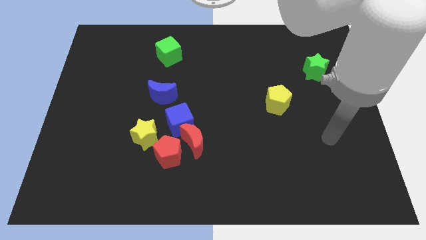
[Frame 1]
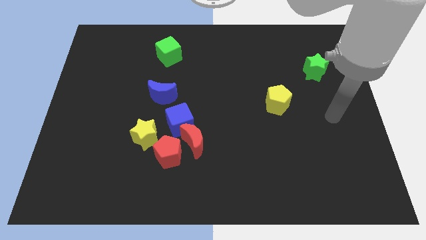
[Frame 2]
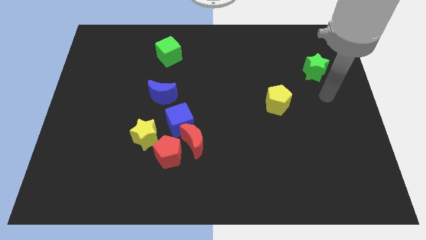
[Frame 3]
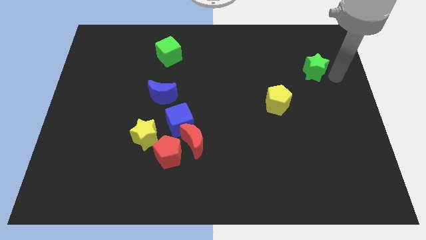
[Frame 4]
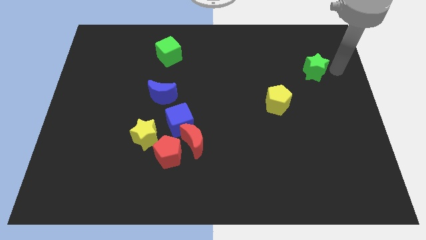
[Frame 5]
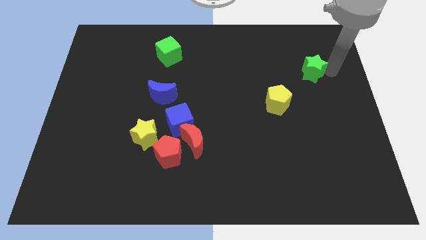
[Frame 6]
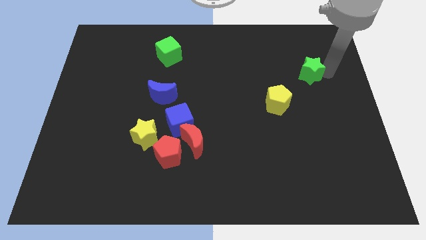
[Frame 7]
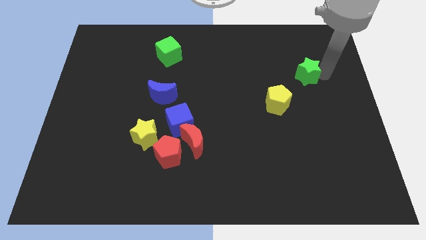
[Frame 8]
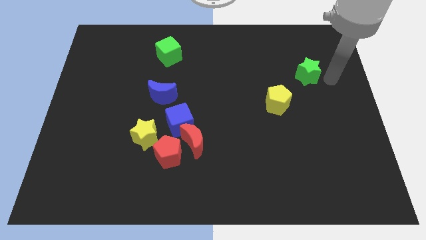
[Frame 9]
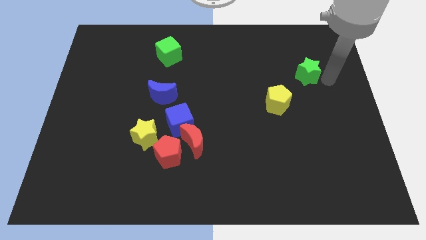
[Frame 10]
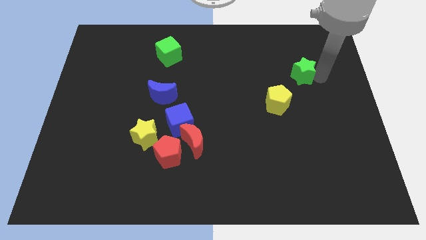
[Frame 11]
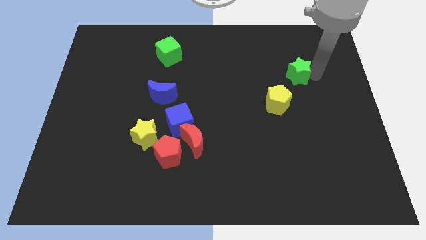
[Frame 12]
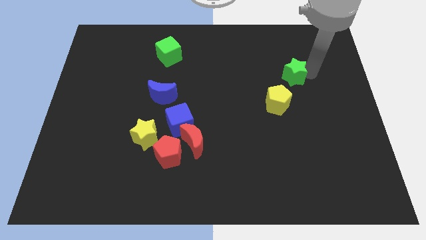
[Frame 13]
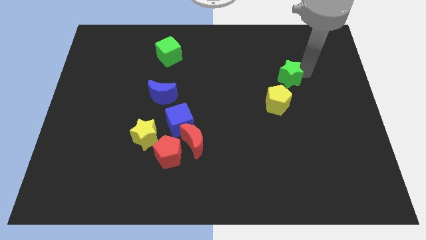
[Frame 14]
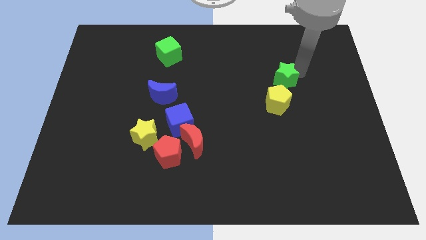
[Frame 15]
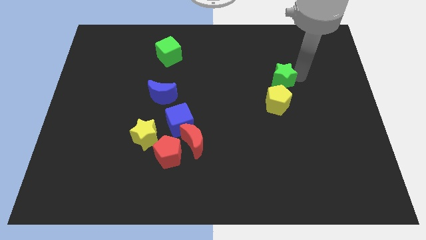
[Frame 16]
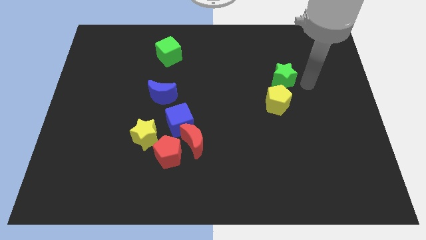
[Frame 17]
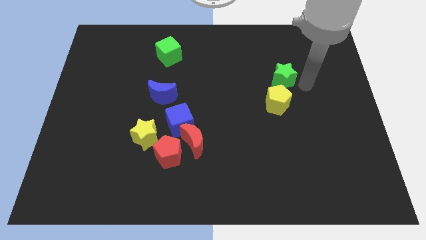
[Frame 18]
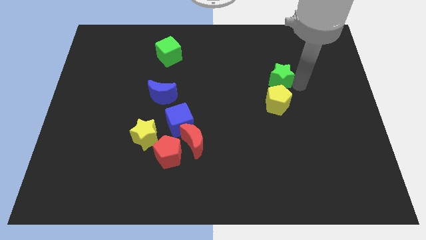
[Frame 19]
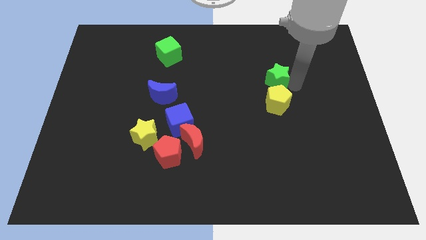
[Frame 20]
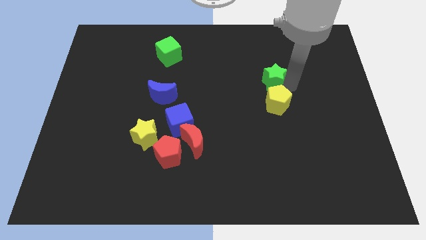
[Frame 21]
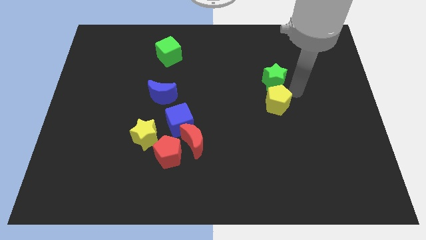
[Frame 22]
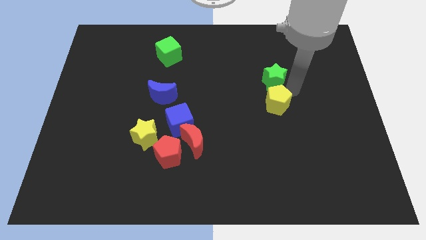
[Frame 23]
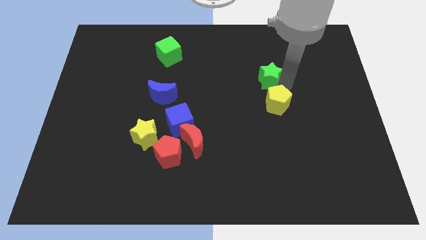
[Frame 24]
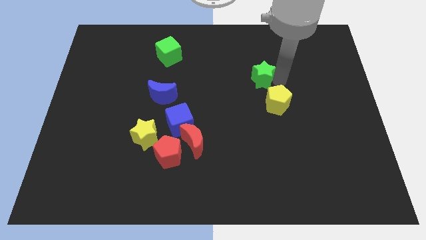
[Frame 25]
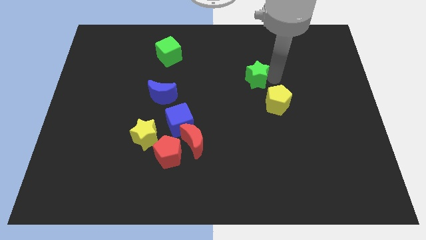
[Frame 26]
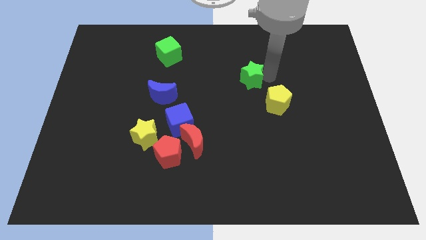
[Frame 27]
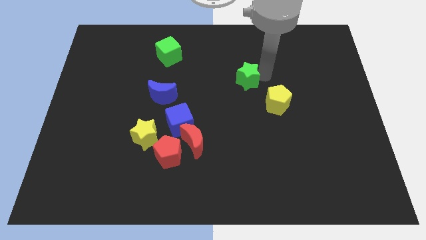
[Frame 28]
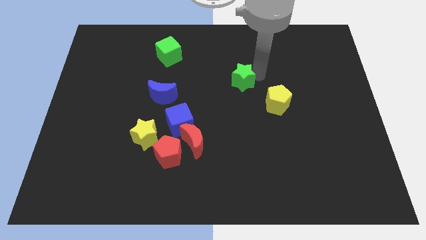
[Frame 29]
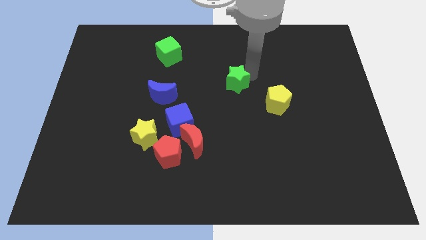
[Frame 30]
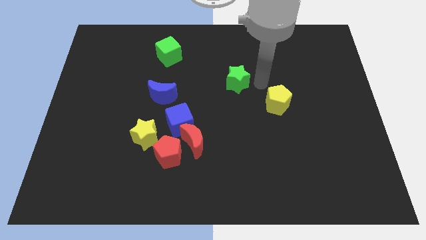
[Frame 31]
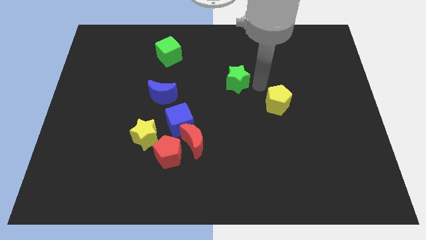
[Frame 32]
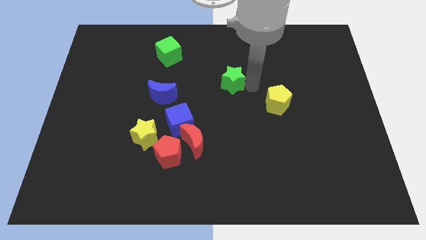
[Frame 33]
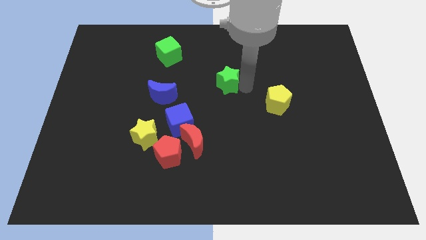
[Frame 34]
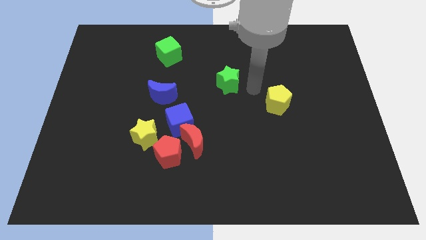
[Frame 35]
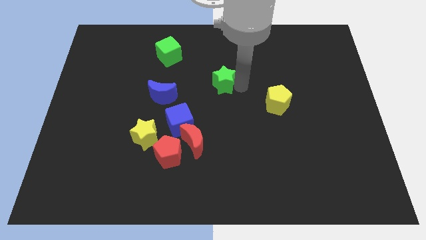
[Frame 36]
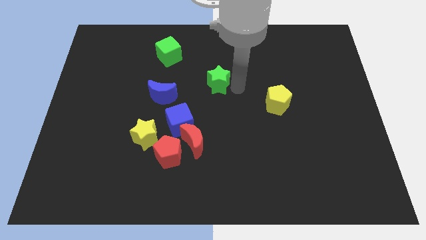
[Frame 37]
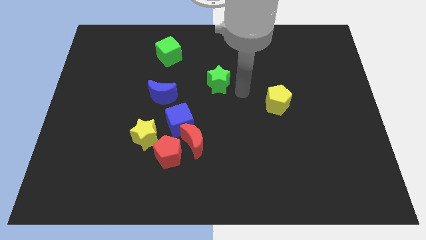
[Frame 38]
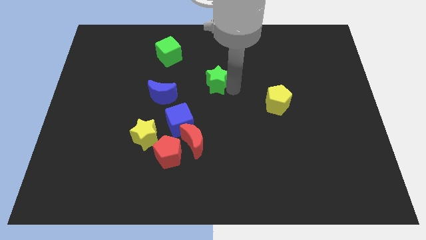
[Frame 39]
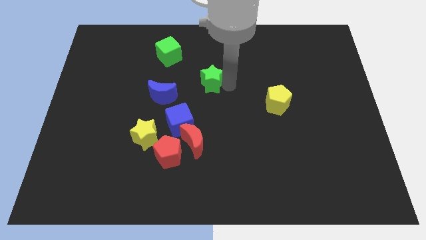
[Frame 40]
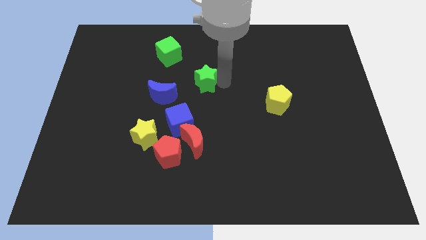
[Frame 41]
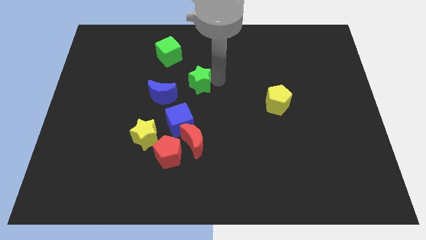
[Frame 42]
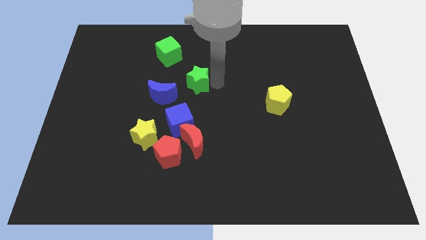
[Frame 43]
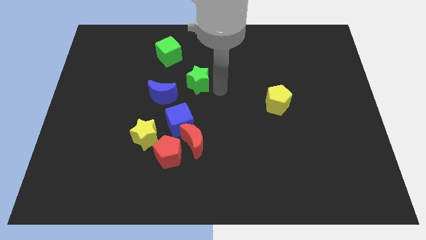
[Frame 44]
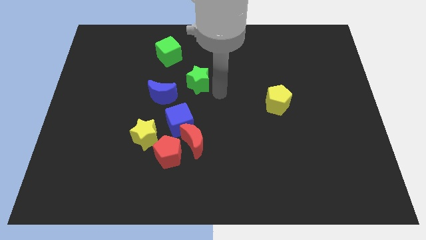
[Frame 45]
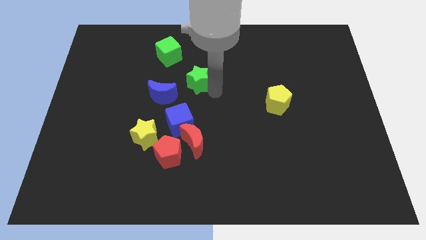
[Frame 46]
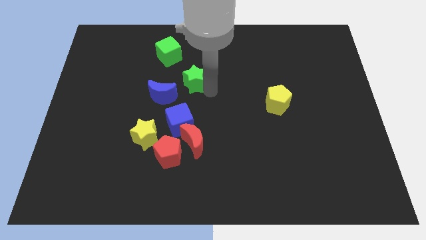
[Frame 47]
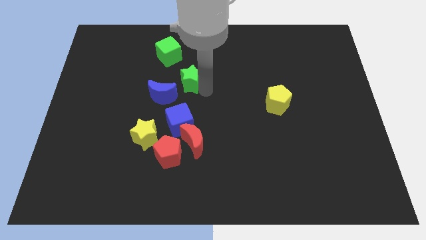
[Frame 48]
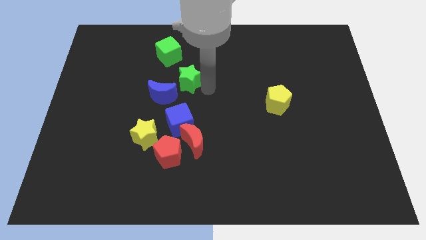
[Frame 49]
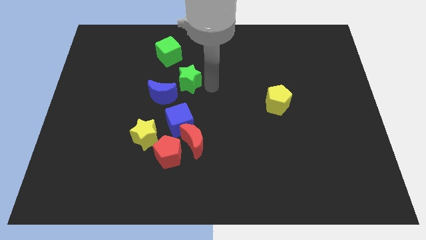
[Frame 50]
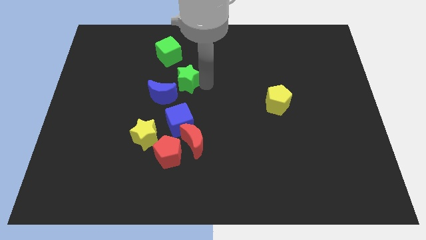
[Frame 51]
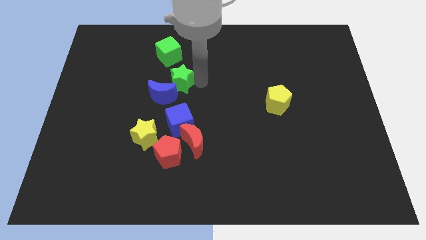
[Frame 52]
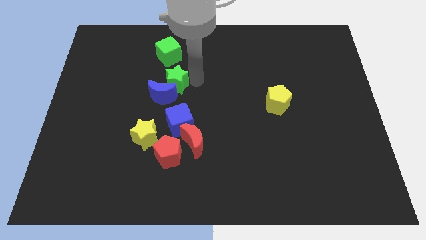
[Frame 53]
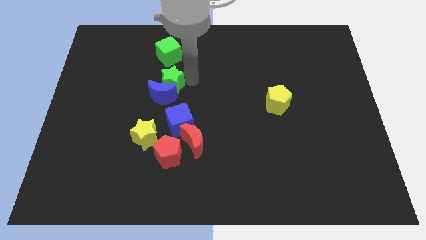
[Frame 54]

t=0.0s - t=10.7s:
put the green star diagonally up and to the left of the blue moon

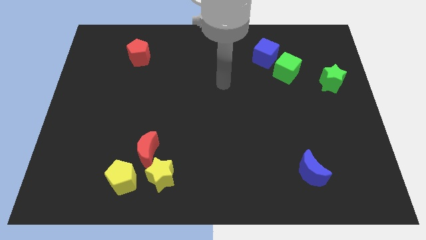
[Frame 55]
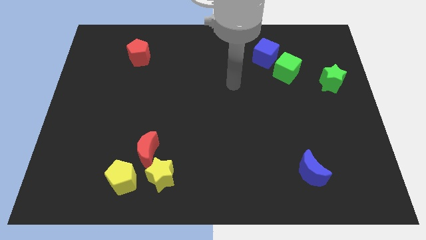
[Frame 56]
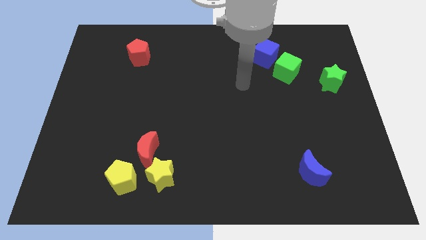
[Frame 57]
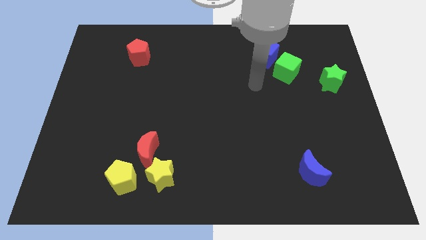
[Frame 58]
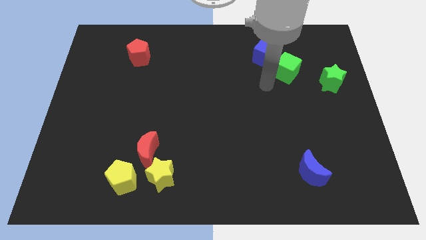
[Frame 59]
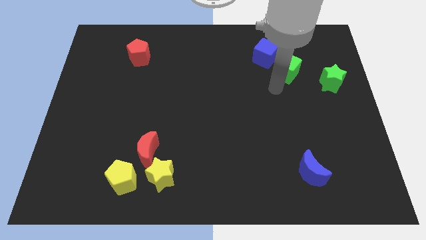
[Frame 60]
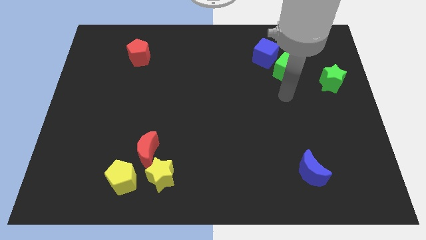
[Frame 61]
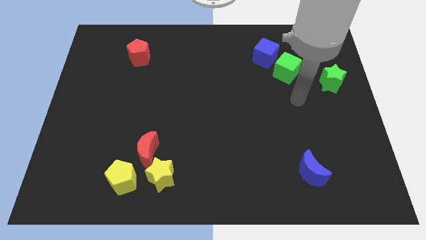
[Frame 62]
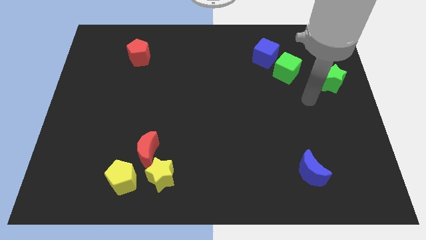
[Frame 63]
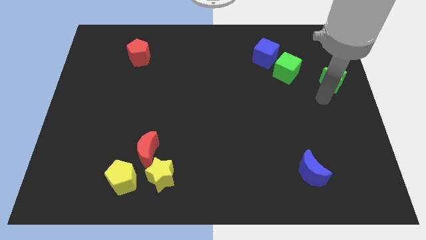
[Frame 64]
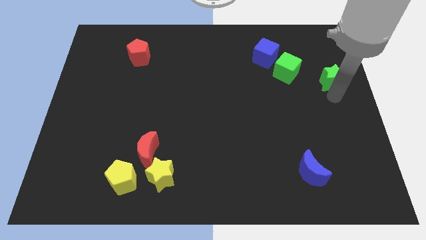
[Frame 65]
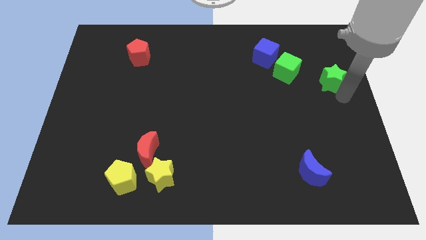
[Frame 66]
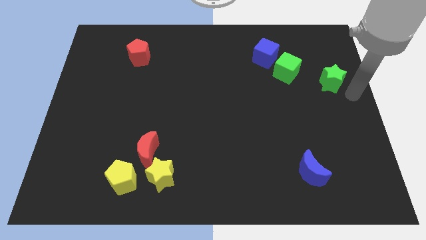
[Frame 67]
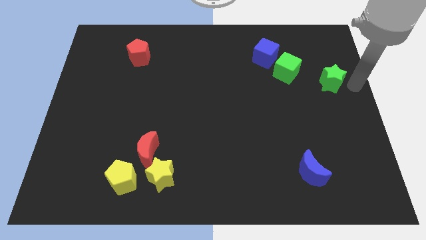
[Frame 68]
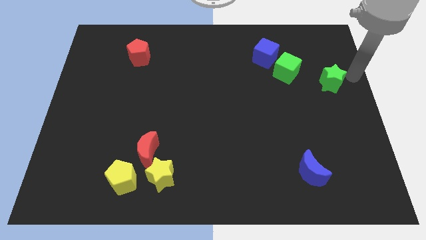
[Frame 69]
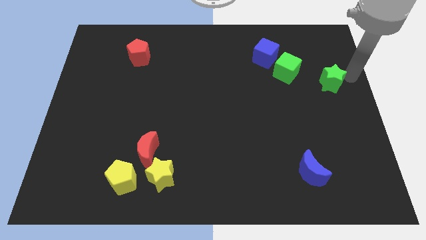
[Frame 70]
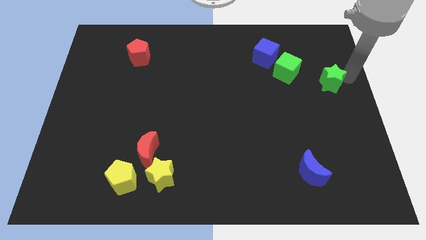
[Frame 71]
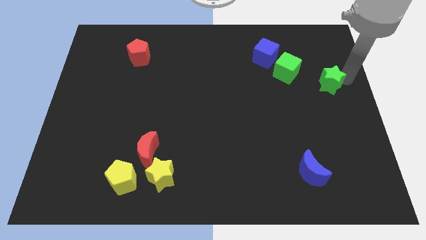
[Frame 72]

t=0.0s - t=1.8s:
move the green star to the bottom right side of the green cube
